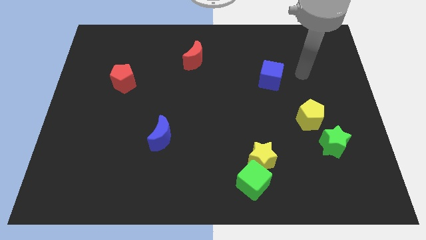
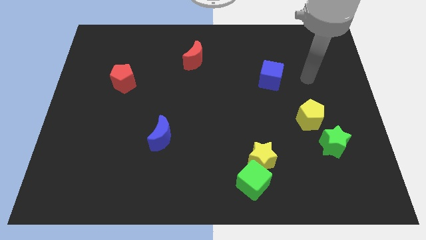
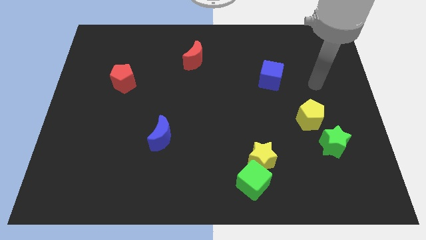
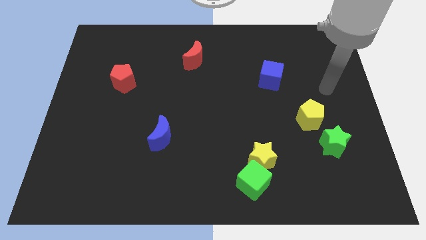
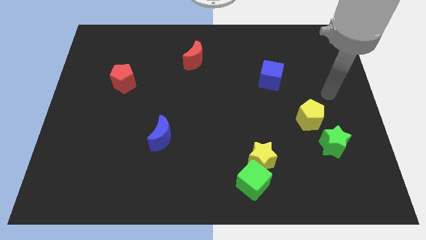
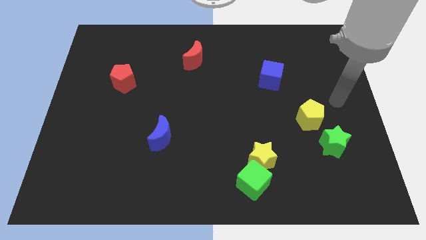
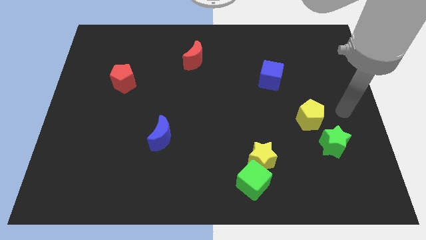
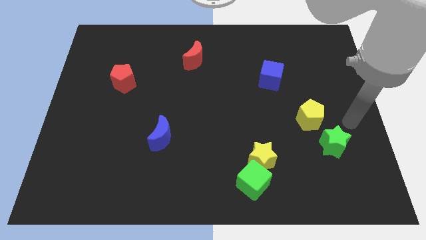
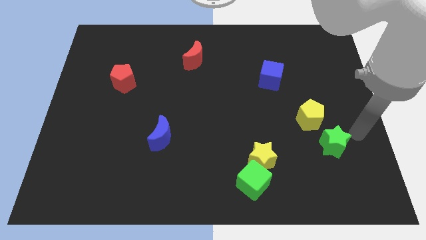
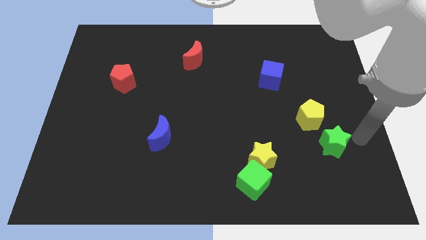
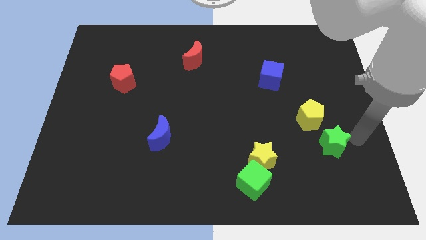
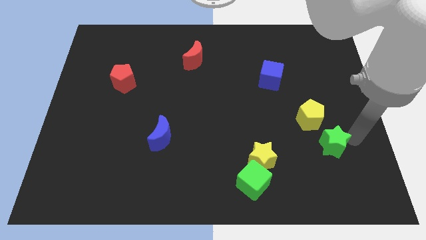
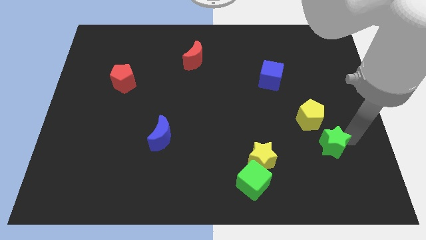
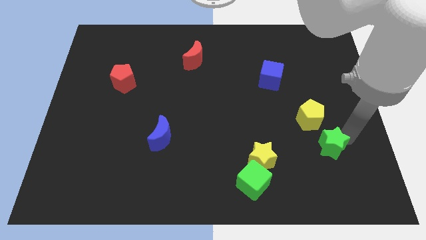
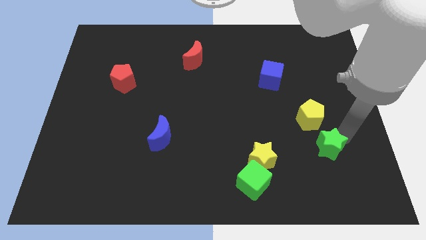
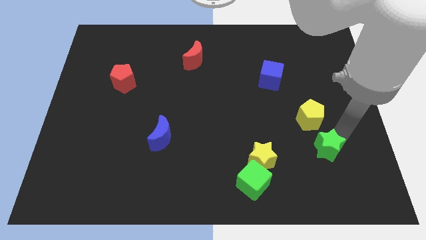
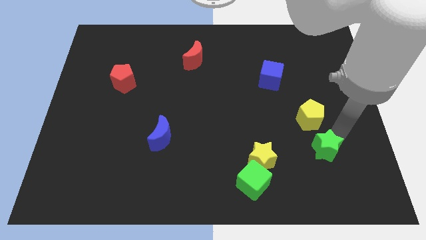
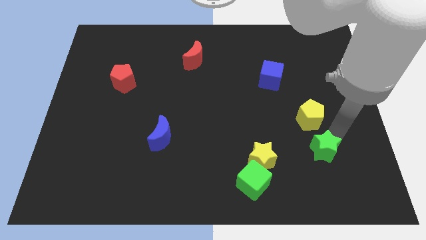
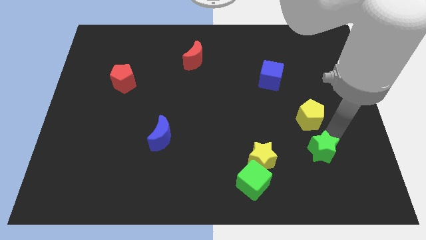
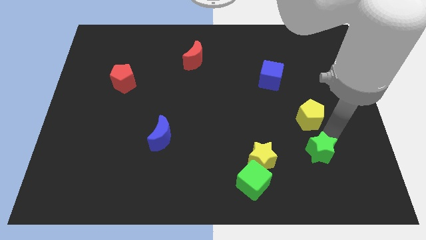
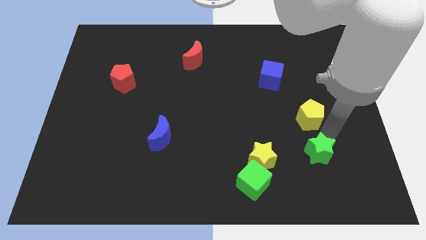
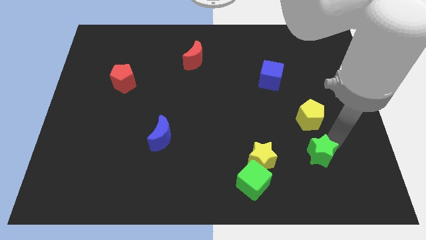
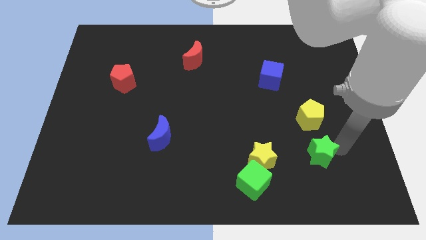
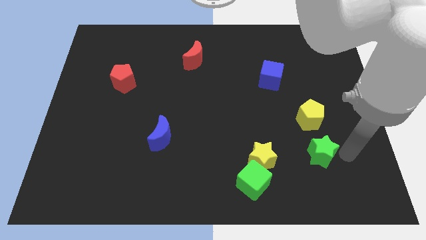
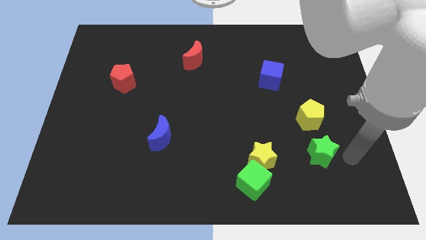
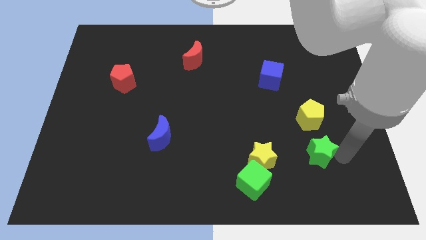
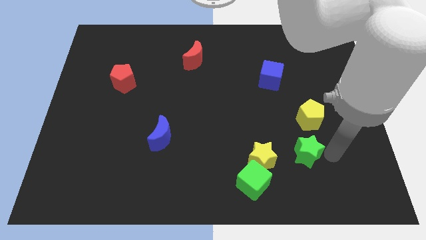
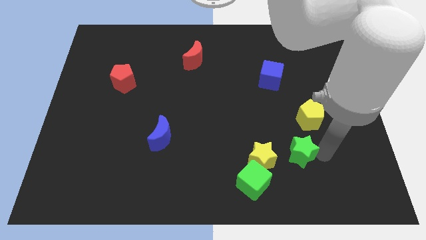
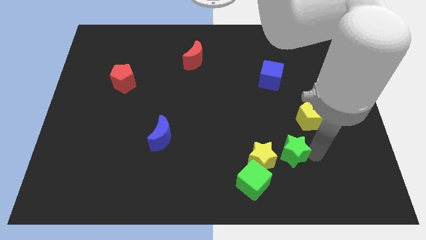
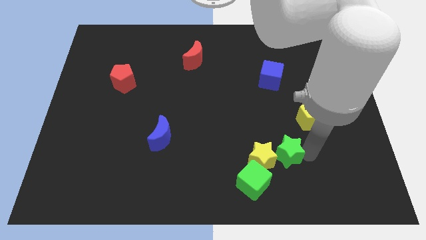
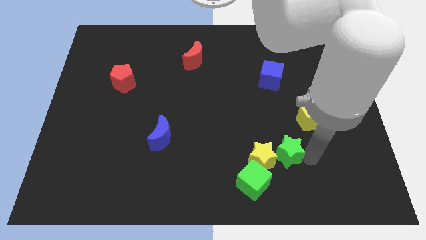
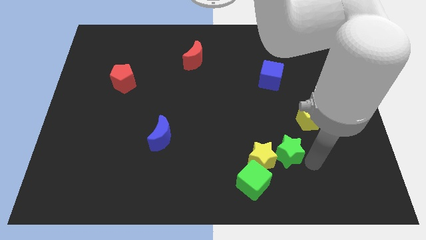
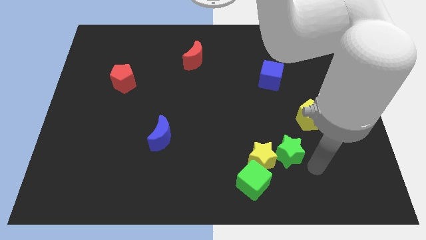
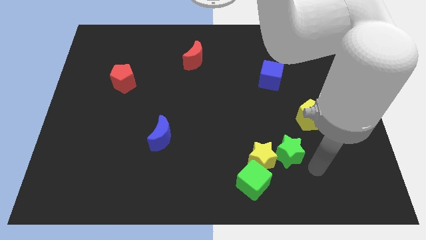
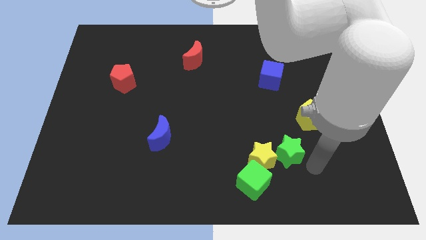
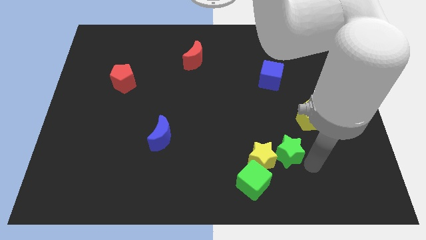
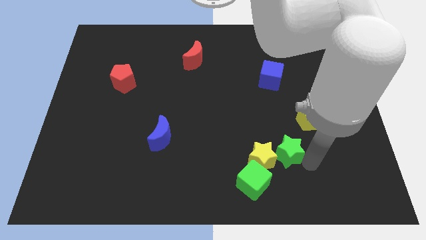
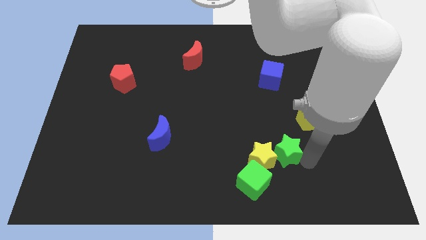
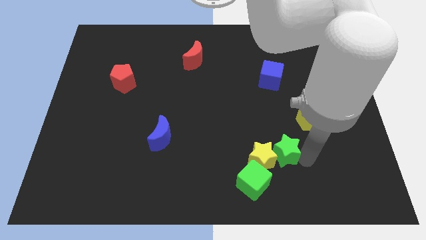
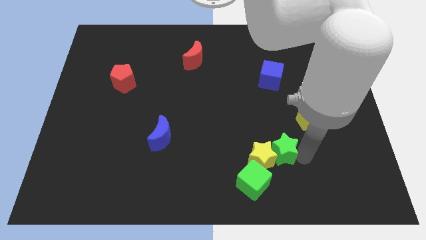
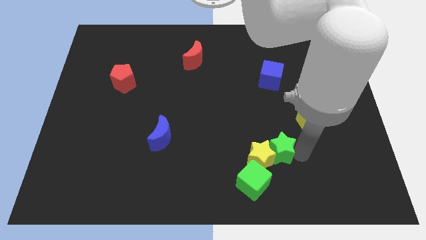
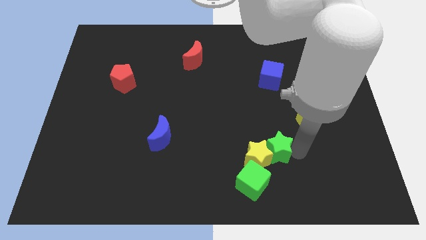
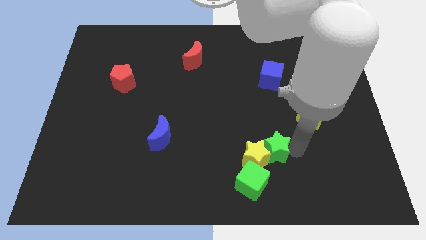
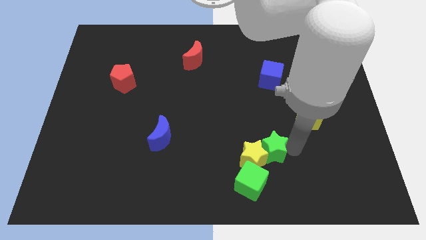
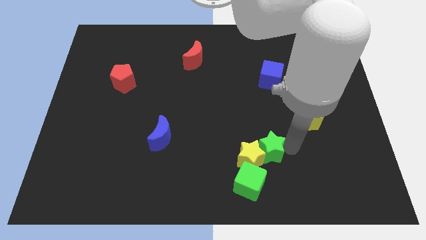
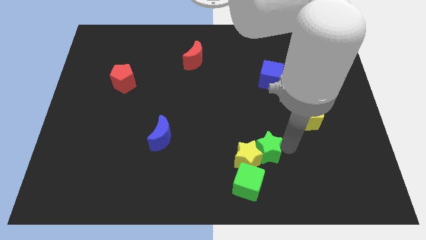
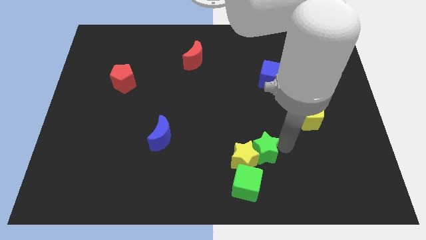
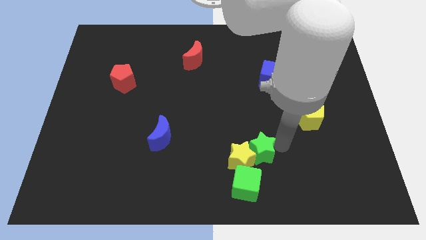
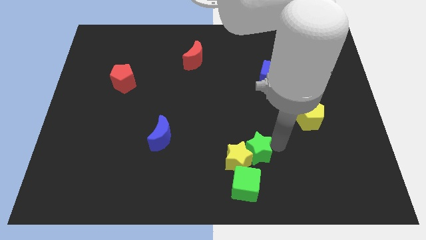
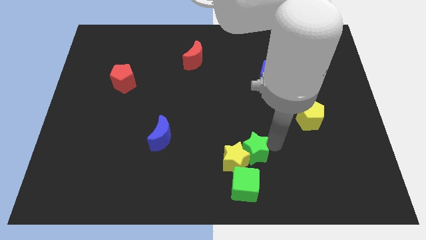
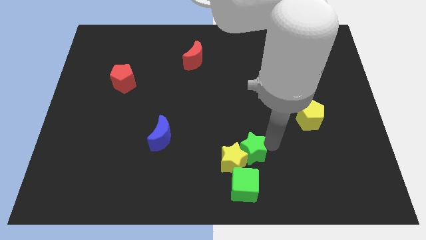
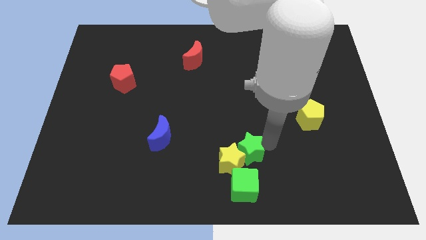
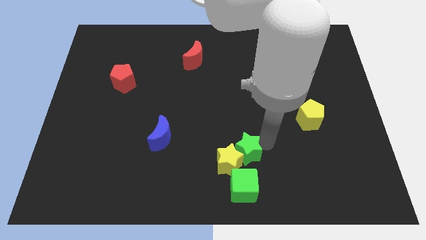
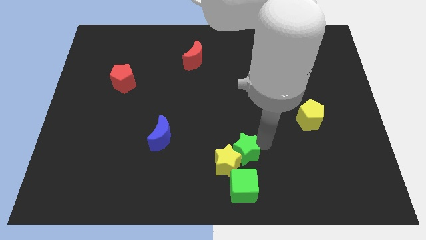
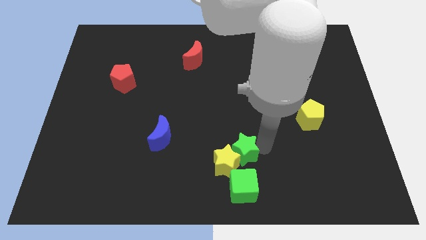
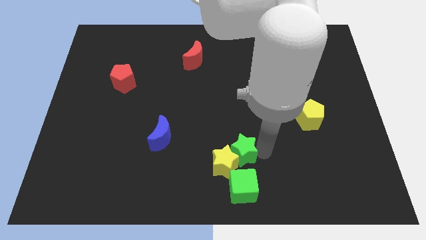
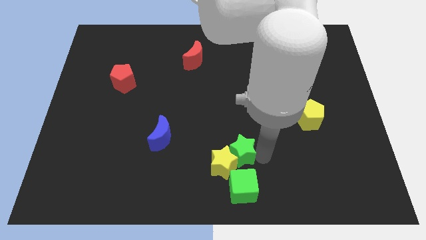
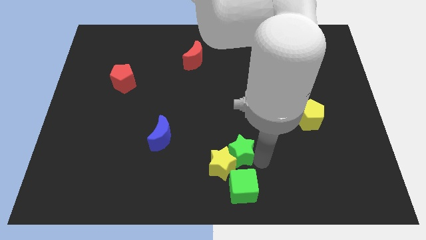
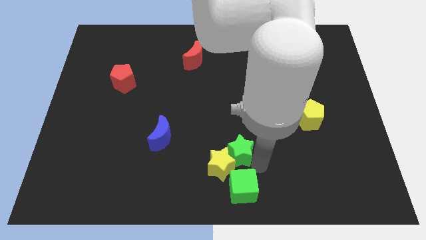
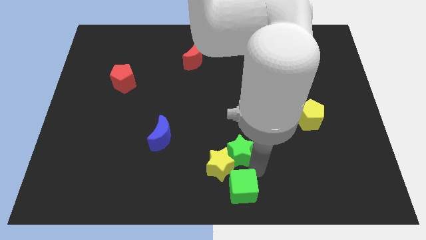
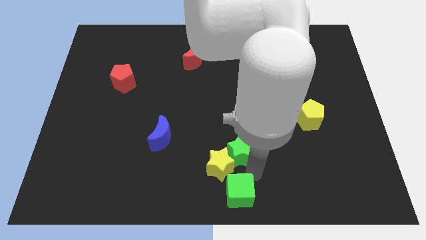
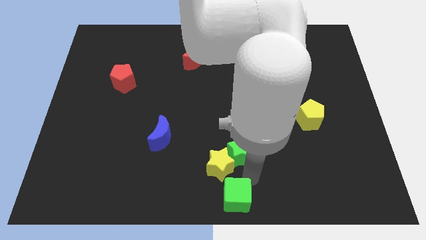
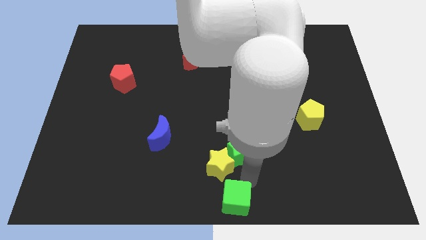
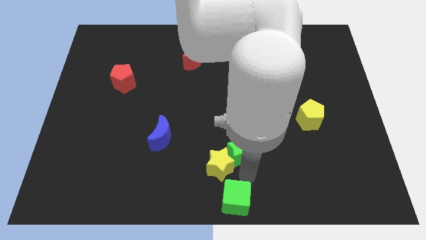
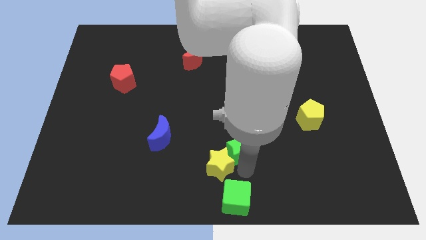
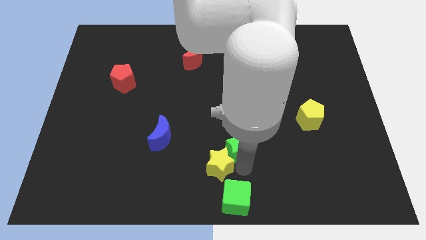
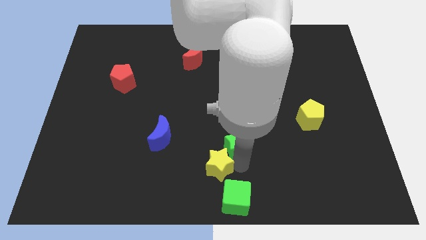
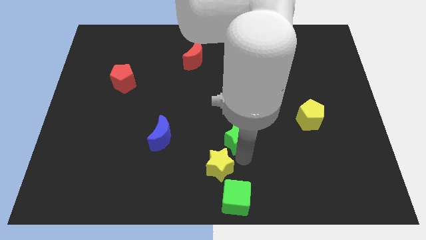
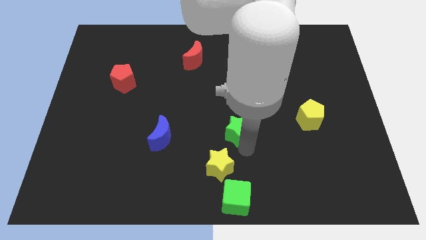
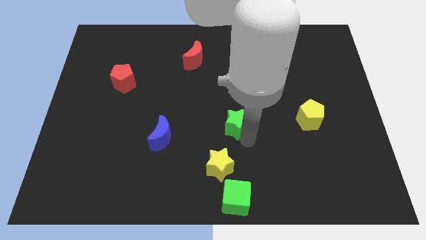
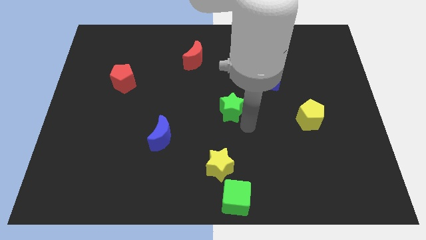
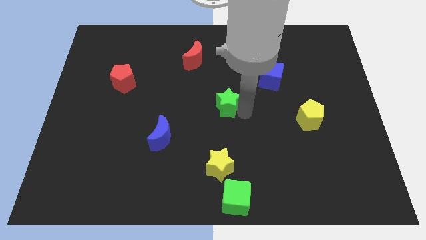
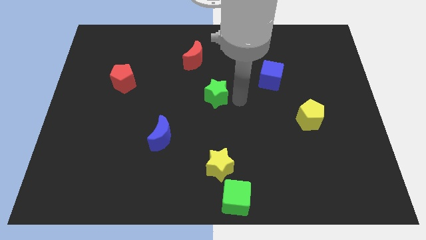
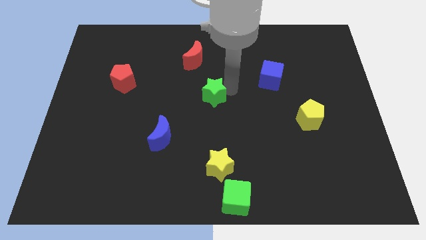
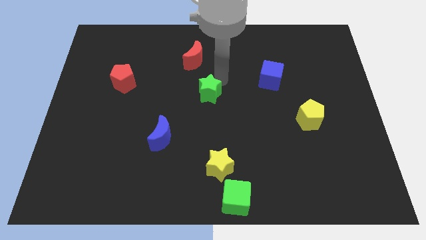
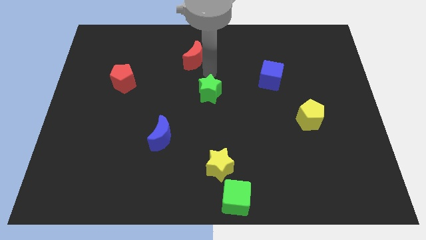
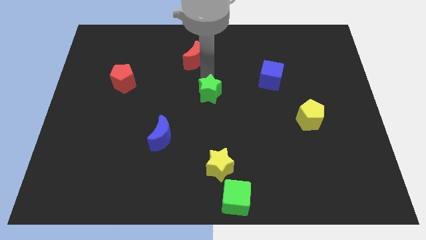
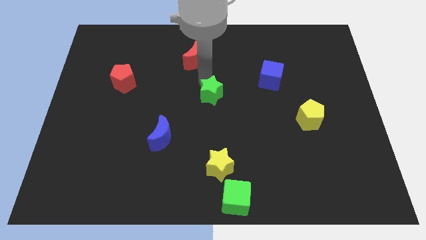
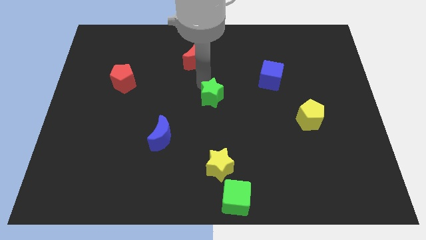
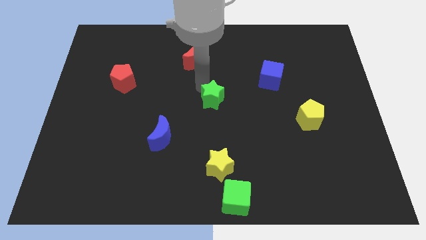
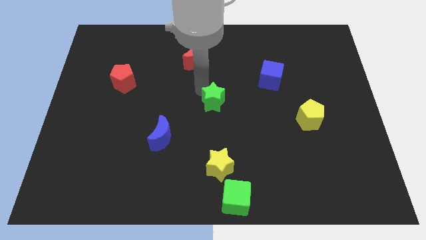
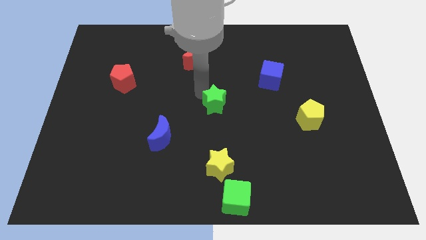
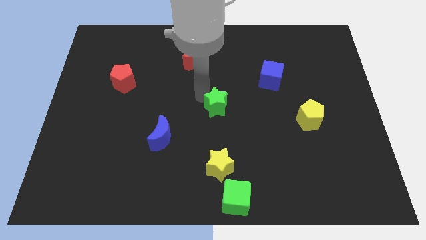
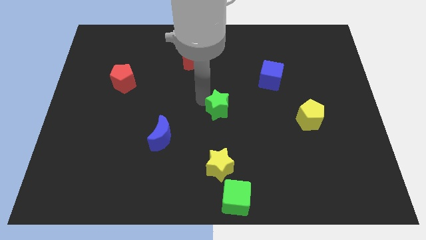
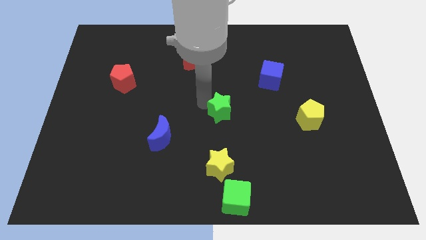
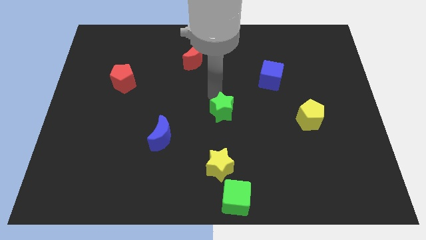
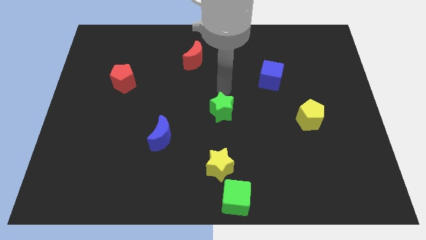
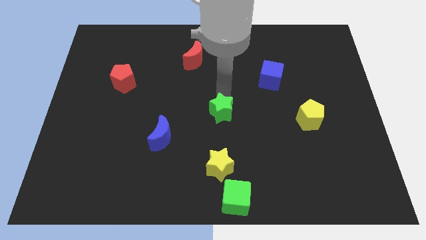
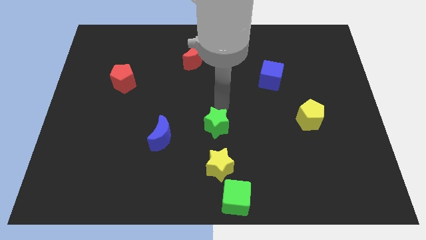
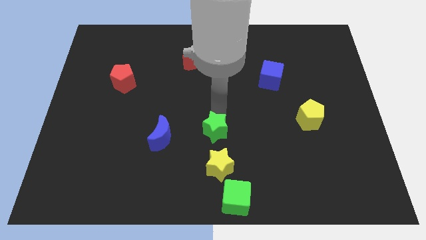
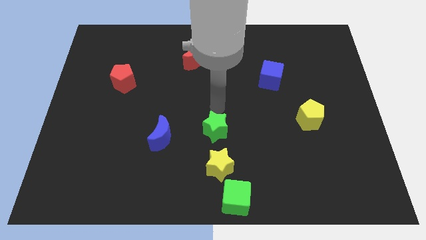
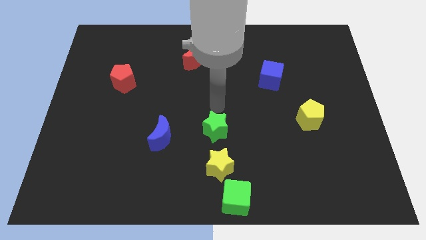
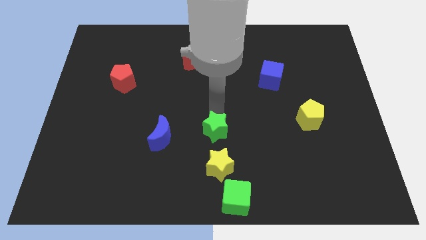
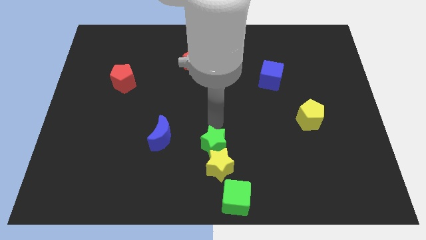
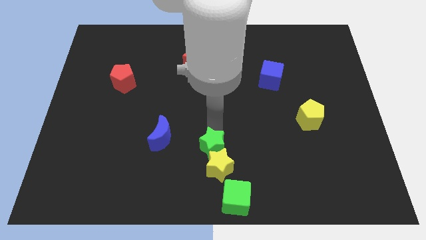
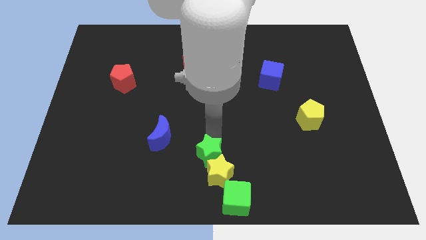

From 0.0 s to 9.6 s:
put the green star to the top left side of the green cube
